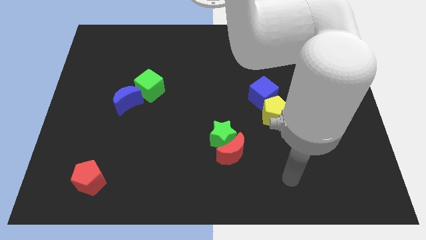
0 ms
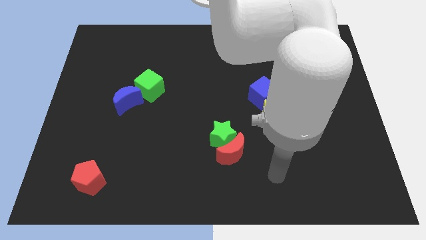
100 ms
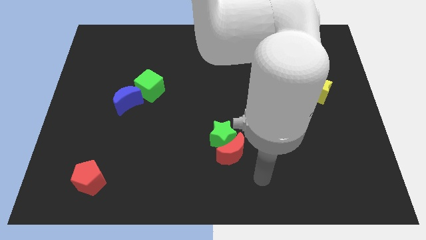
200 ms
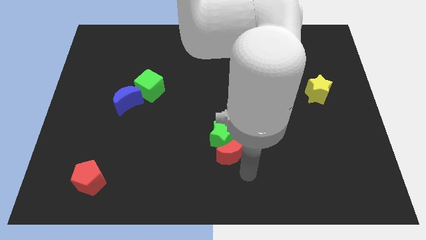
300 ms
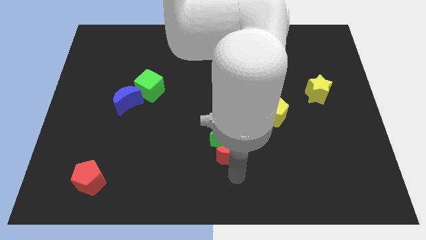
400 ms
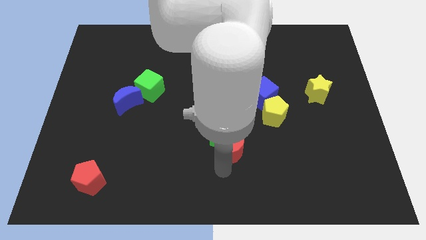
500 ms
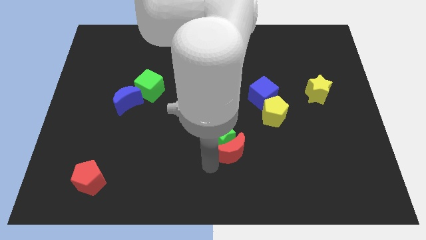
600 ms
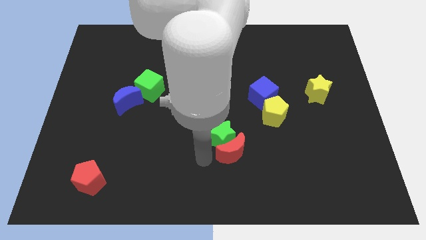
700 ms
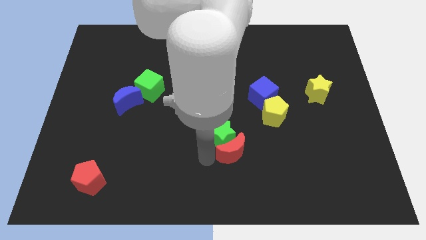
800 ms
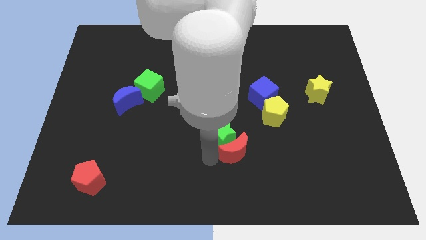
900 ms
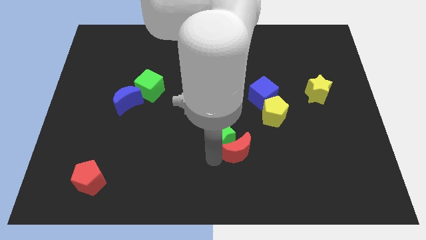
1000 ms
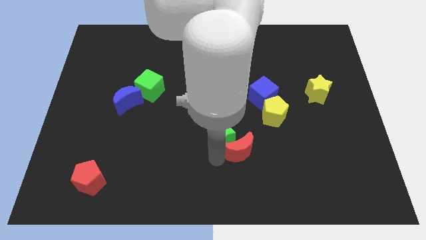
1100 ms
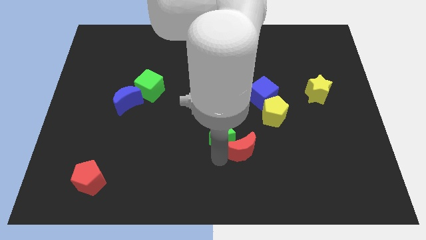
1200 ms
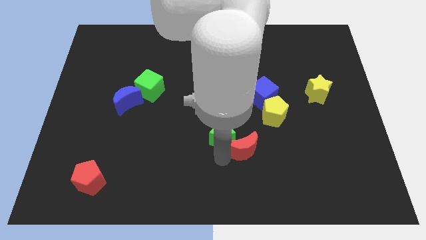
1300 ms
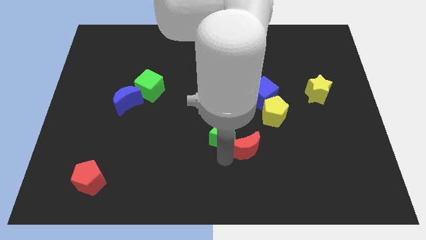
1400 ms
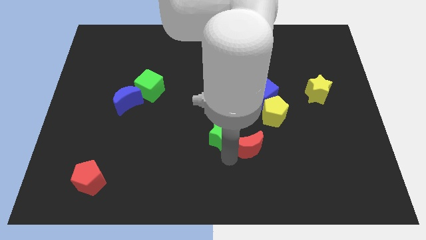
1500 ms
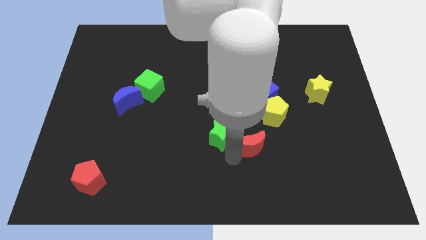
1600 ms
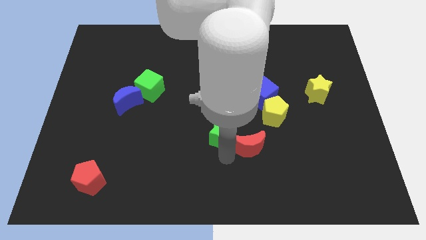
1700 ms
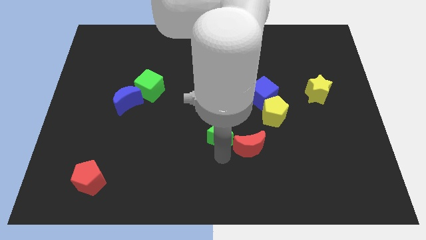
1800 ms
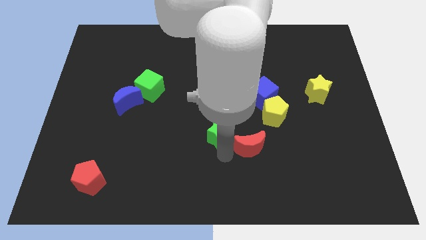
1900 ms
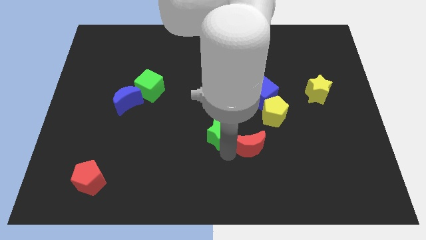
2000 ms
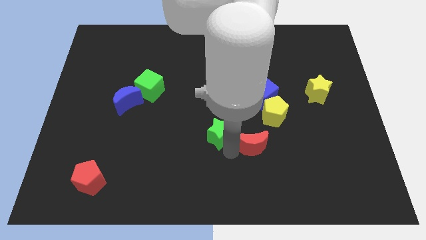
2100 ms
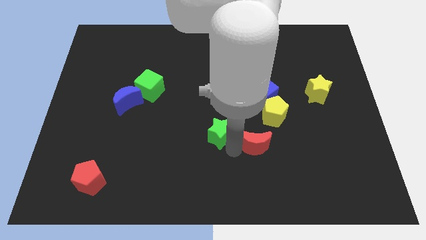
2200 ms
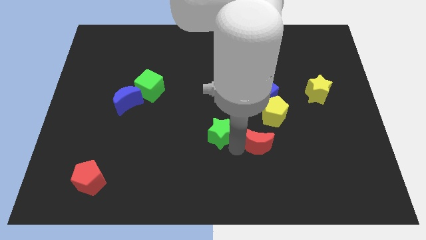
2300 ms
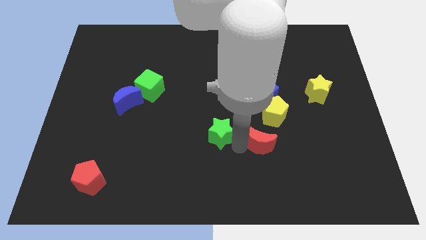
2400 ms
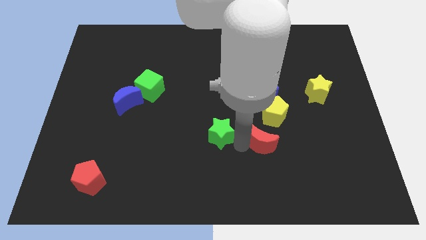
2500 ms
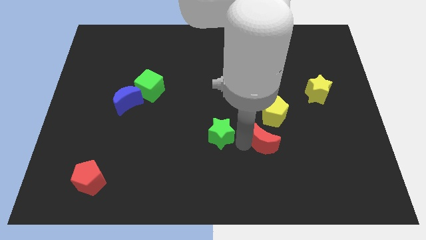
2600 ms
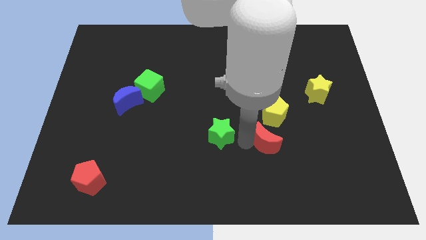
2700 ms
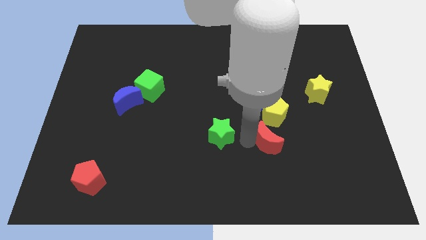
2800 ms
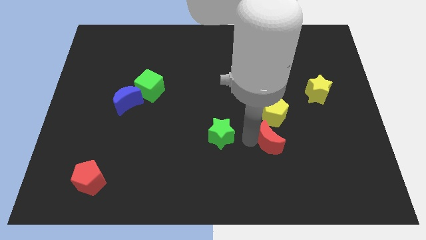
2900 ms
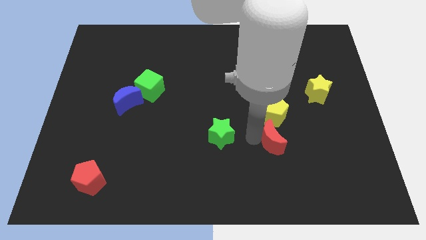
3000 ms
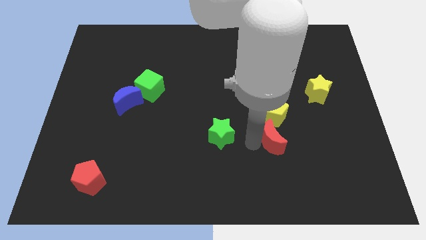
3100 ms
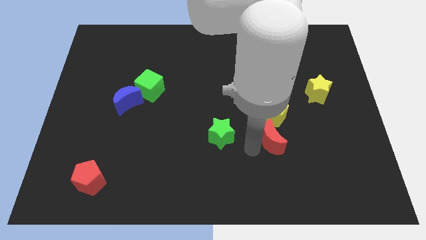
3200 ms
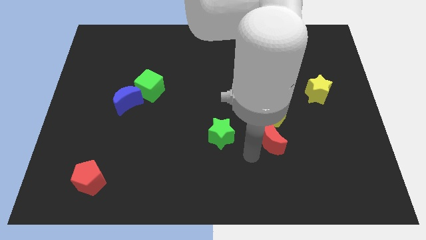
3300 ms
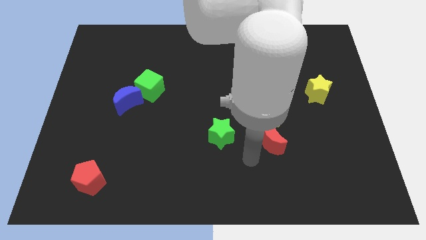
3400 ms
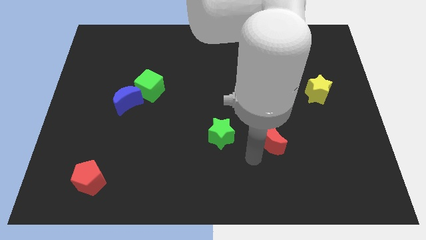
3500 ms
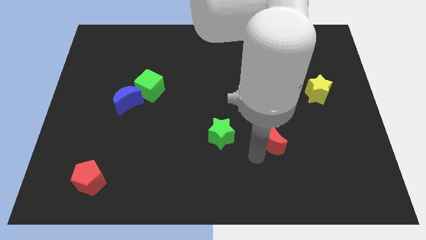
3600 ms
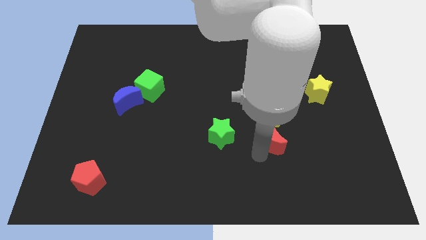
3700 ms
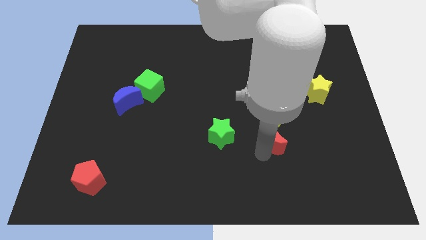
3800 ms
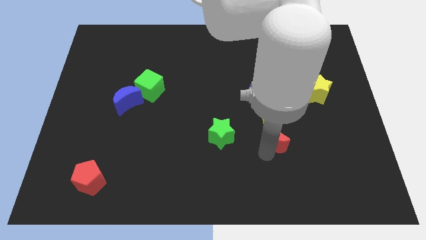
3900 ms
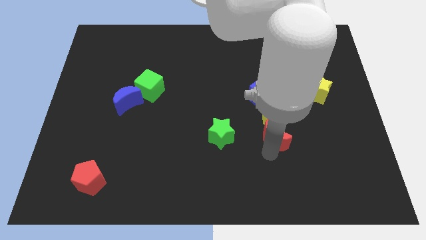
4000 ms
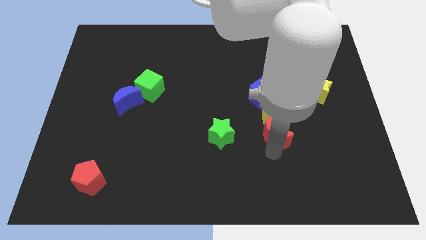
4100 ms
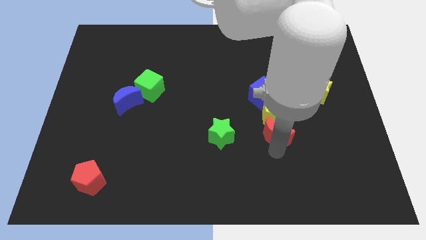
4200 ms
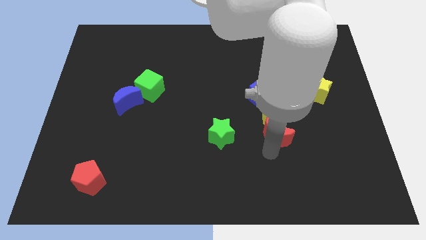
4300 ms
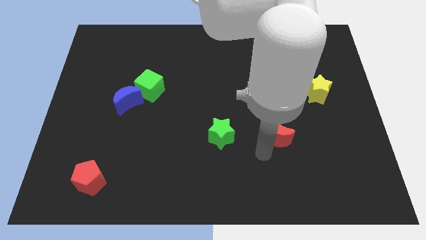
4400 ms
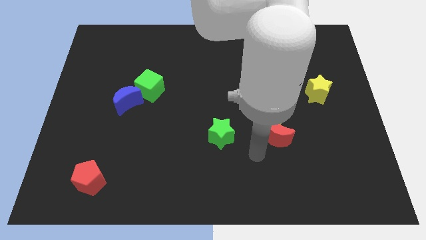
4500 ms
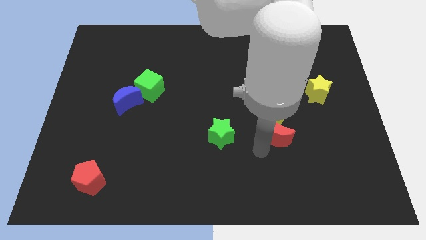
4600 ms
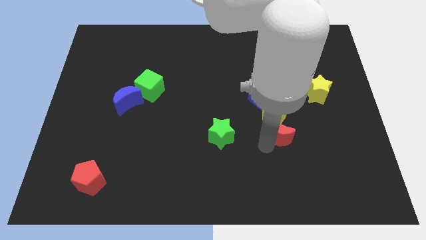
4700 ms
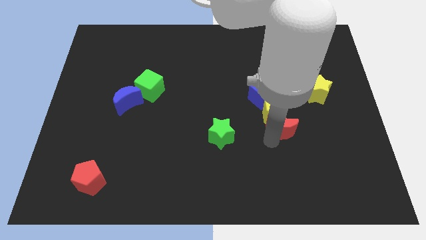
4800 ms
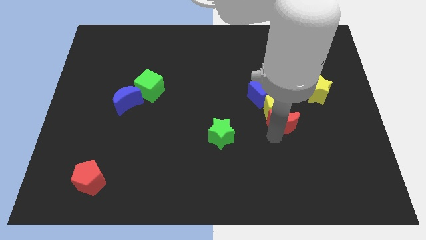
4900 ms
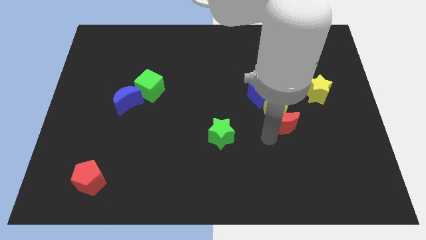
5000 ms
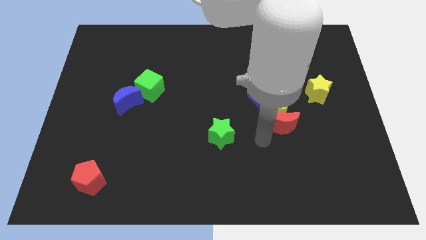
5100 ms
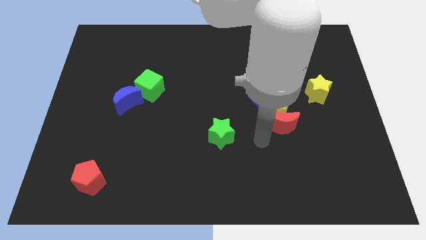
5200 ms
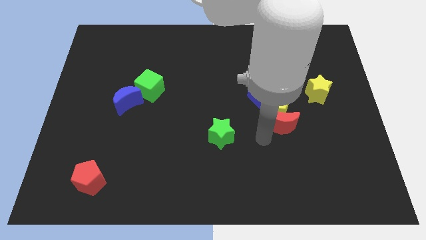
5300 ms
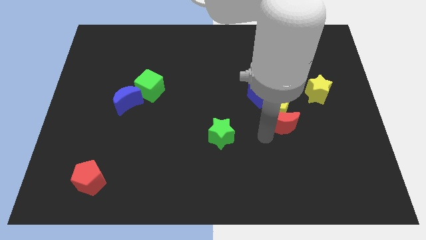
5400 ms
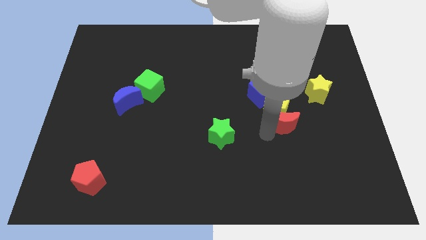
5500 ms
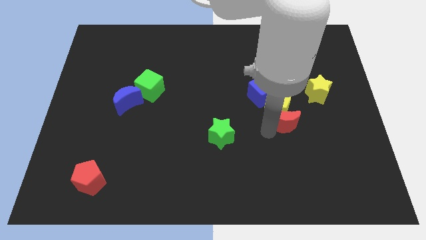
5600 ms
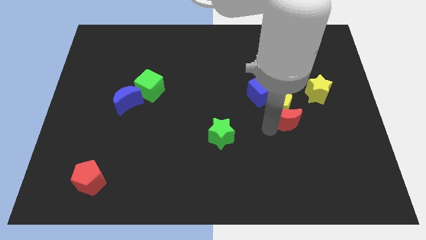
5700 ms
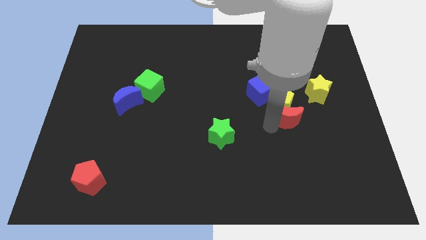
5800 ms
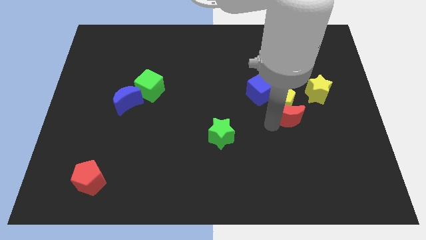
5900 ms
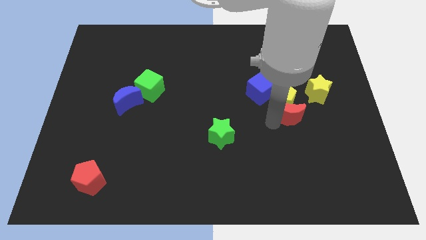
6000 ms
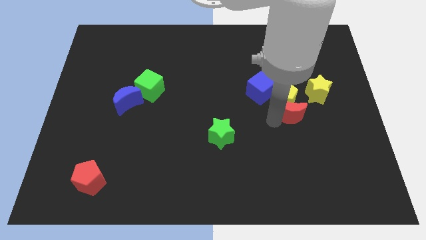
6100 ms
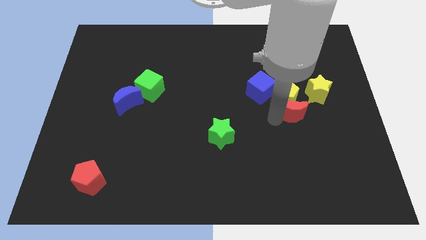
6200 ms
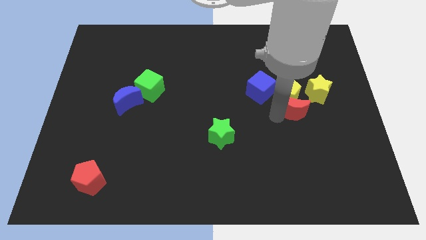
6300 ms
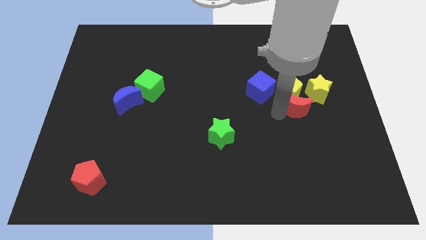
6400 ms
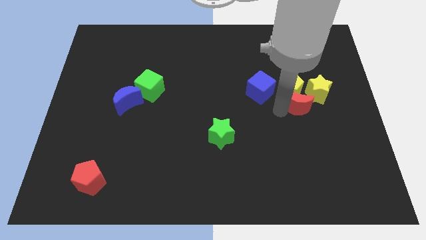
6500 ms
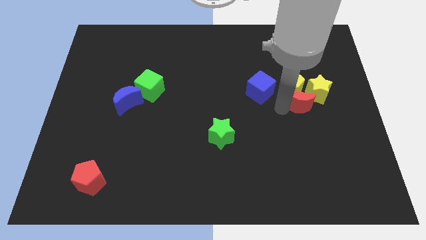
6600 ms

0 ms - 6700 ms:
move the red moon towards the yellow star

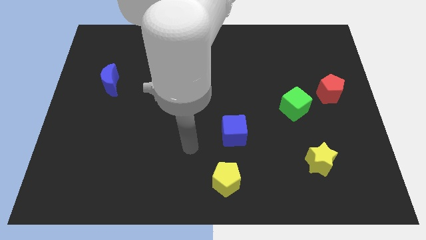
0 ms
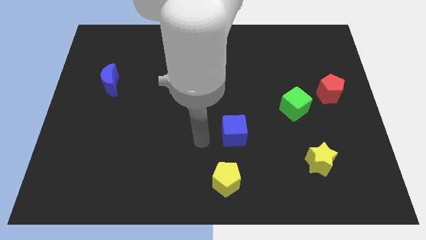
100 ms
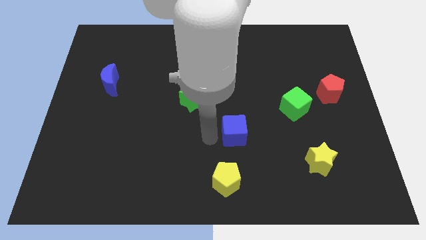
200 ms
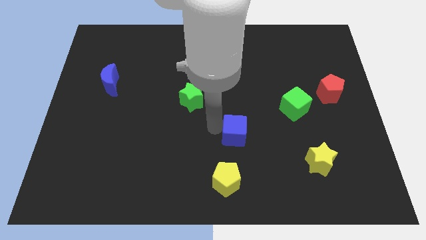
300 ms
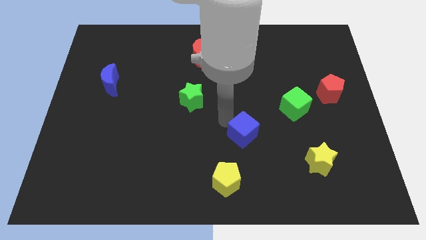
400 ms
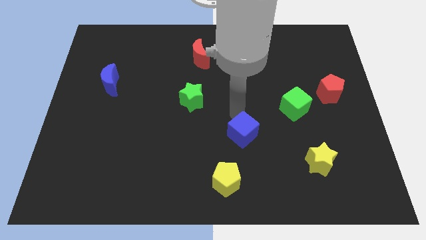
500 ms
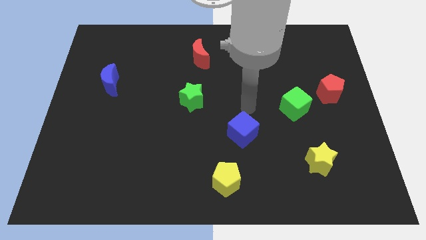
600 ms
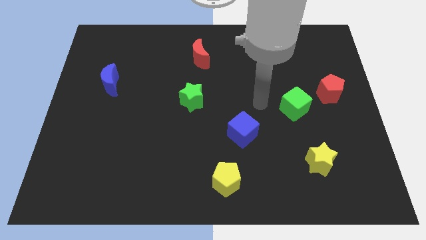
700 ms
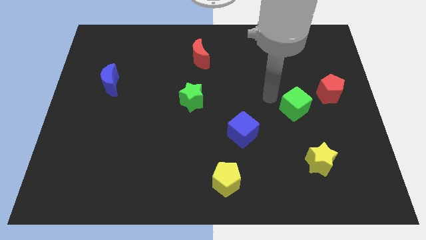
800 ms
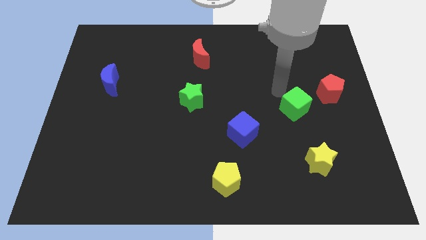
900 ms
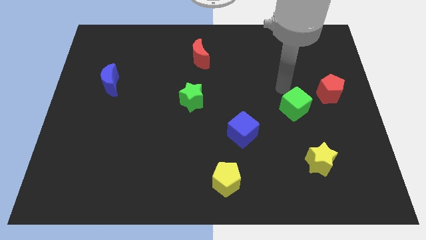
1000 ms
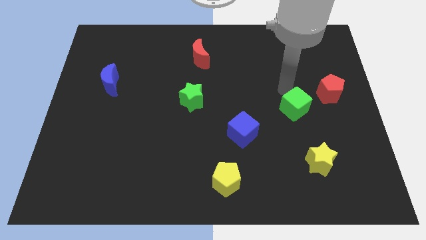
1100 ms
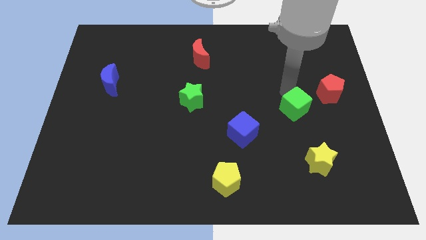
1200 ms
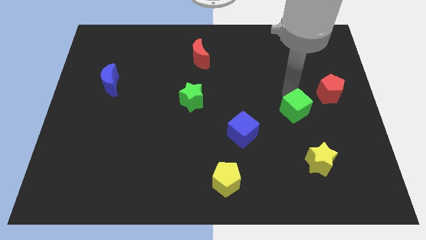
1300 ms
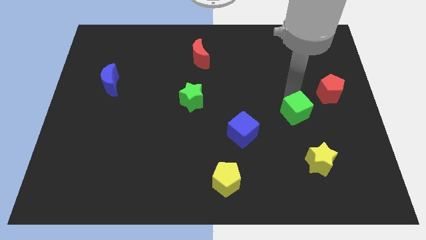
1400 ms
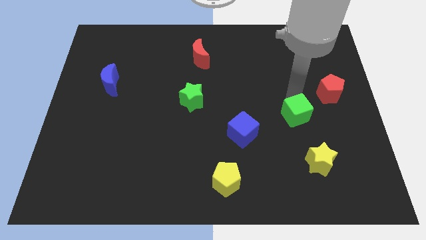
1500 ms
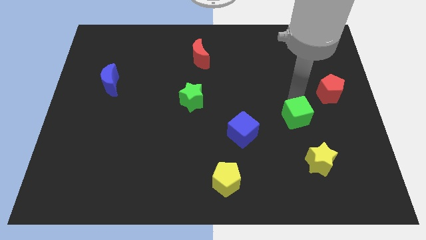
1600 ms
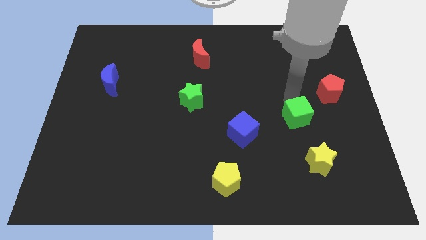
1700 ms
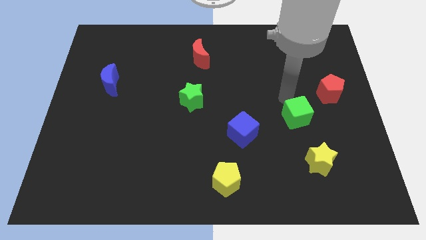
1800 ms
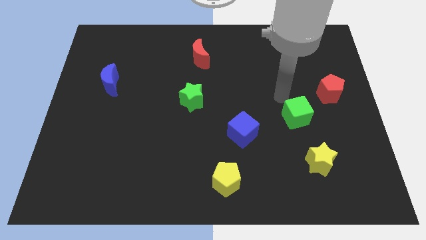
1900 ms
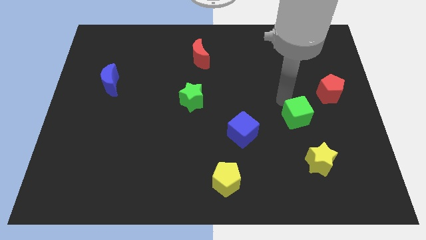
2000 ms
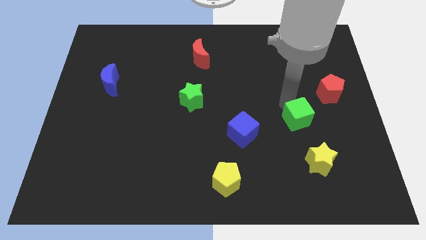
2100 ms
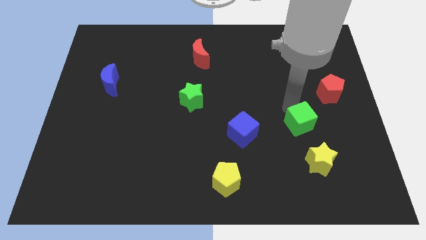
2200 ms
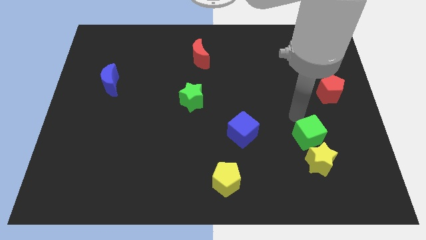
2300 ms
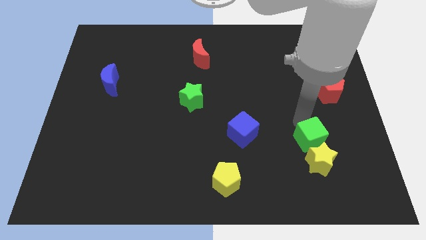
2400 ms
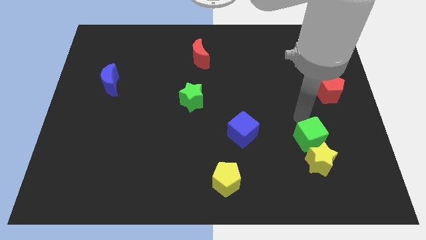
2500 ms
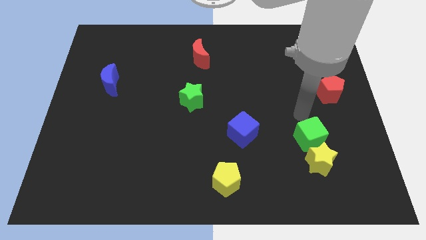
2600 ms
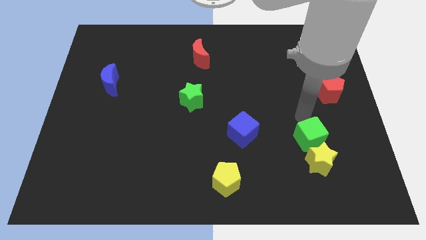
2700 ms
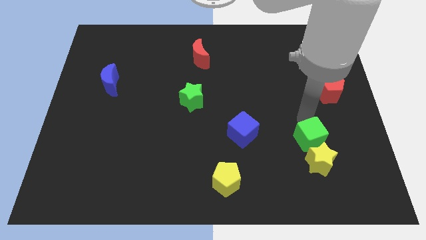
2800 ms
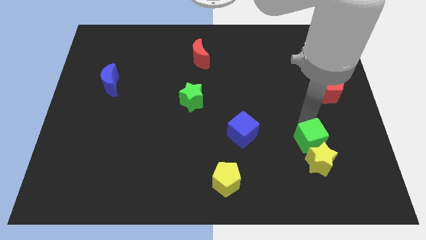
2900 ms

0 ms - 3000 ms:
put the green cube close to the yellow star
